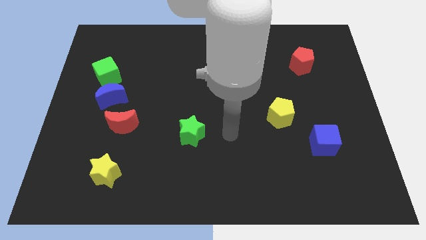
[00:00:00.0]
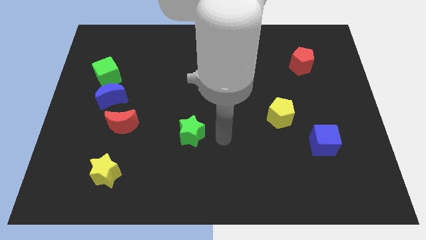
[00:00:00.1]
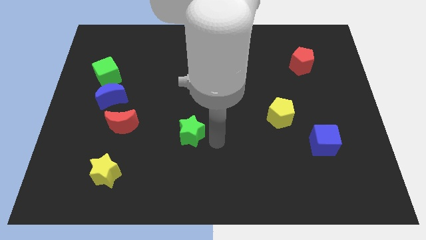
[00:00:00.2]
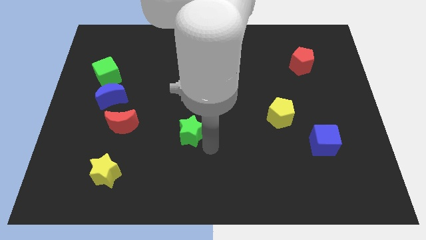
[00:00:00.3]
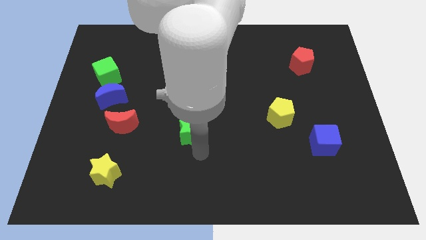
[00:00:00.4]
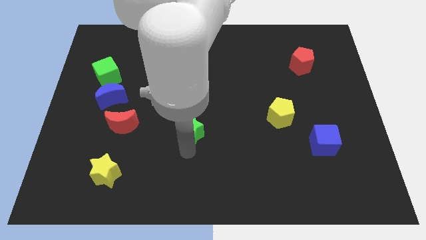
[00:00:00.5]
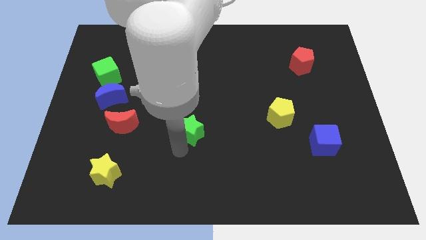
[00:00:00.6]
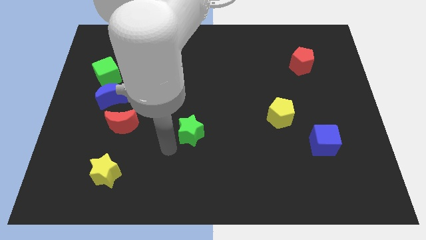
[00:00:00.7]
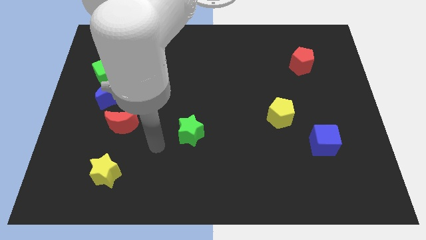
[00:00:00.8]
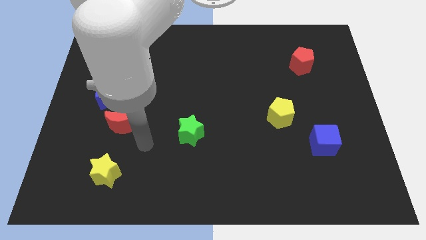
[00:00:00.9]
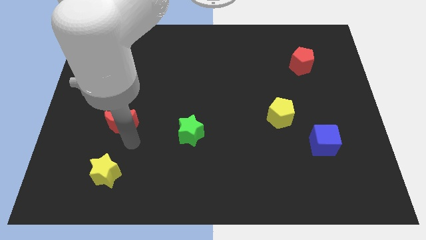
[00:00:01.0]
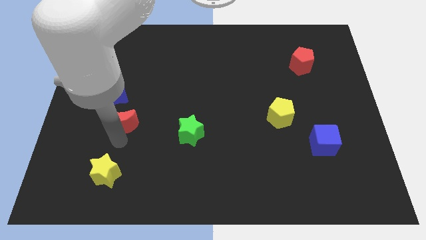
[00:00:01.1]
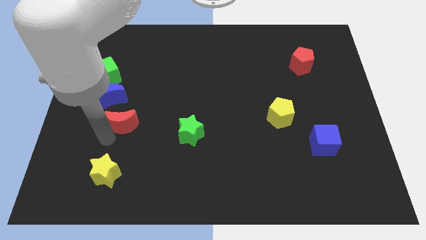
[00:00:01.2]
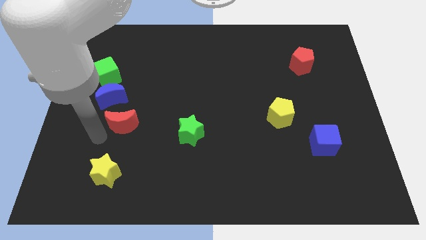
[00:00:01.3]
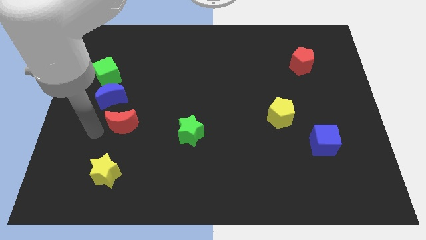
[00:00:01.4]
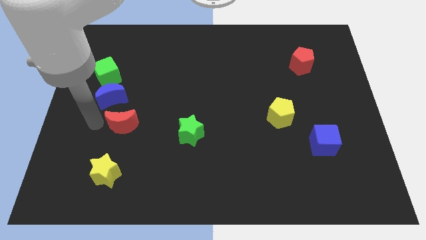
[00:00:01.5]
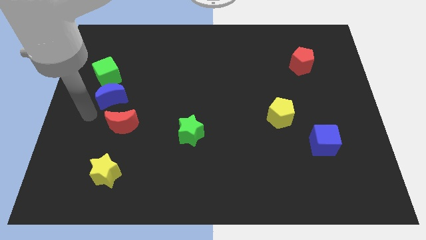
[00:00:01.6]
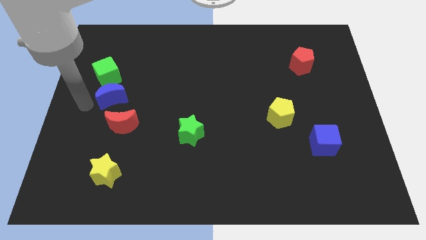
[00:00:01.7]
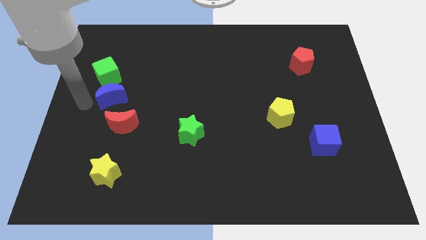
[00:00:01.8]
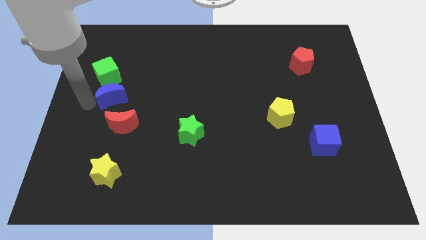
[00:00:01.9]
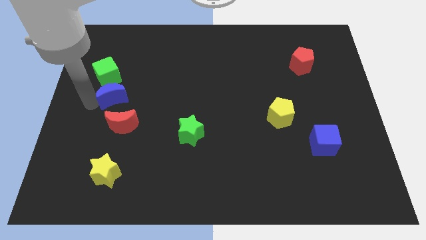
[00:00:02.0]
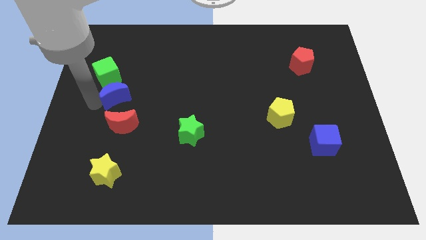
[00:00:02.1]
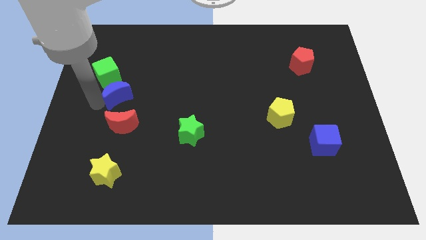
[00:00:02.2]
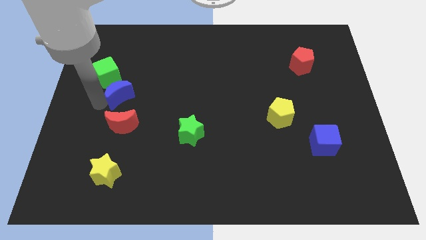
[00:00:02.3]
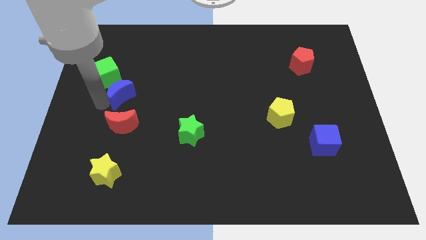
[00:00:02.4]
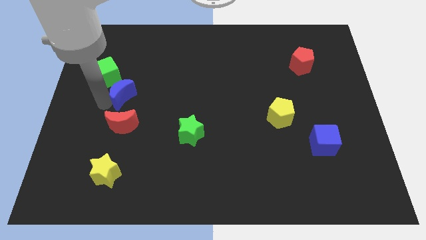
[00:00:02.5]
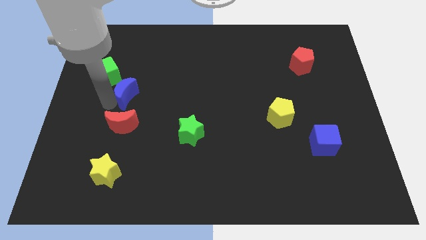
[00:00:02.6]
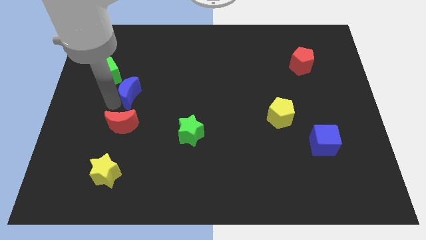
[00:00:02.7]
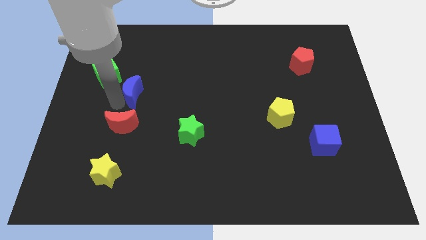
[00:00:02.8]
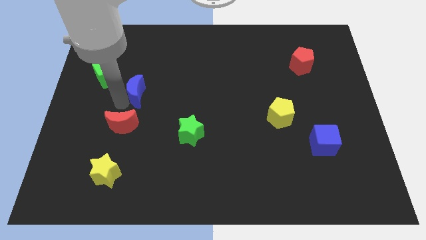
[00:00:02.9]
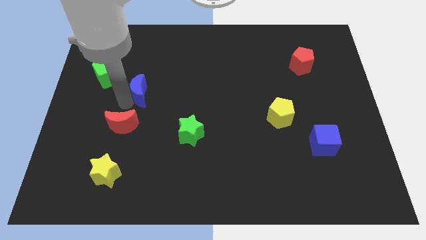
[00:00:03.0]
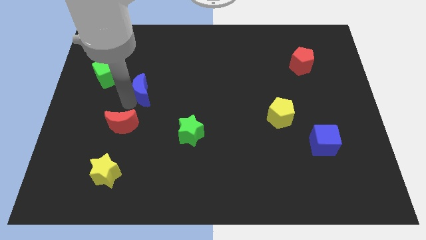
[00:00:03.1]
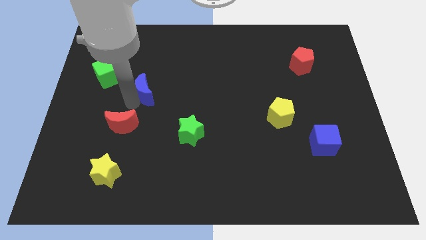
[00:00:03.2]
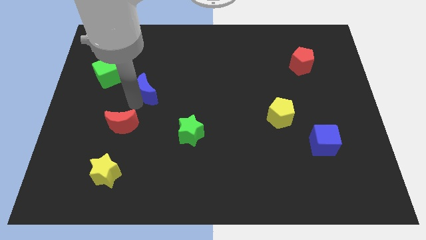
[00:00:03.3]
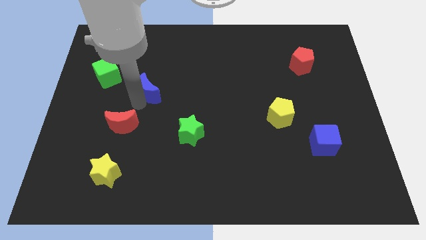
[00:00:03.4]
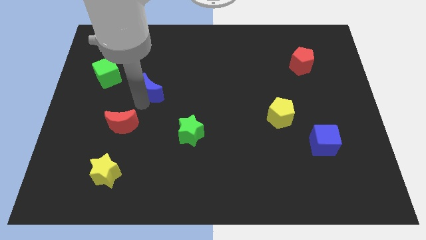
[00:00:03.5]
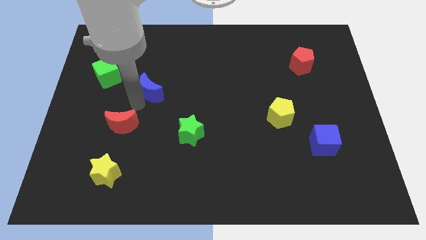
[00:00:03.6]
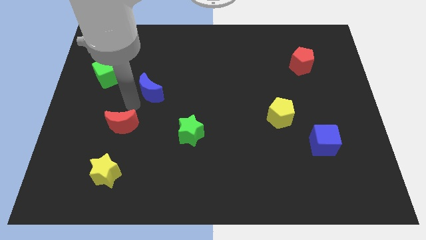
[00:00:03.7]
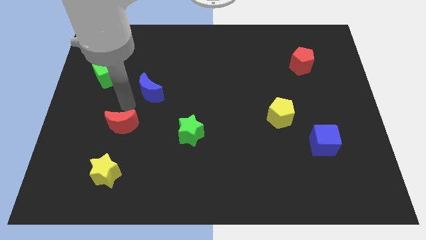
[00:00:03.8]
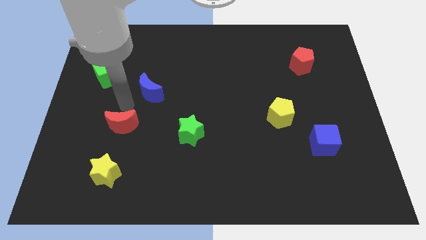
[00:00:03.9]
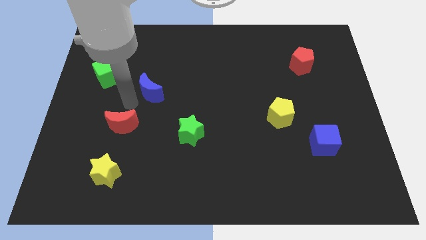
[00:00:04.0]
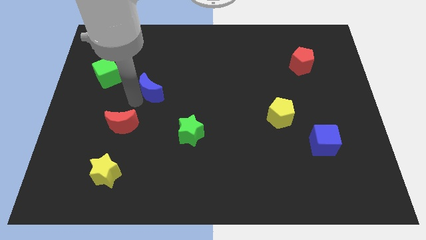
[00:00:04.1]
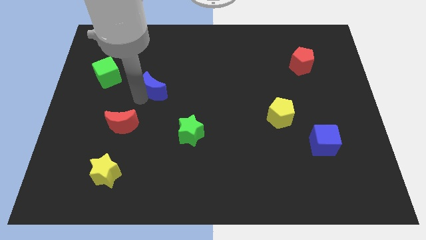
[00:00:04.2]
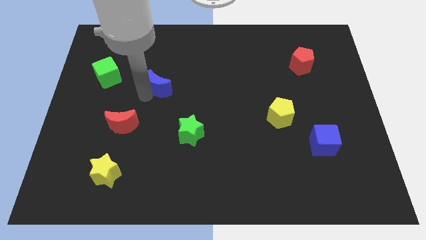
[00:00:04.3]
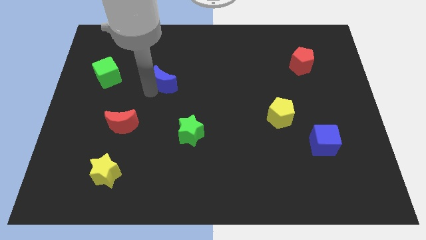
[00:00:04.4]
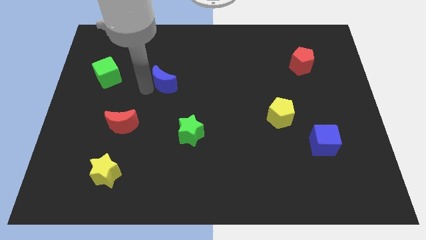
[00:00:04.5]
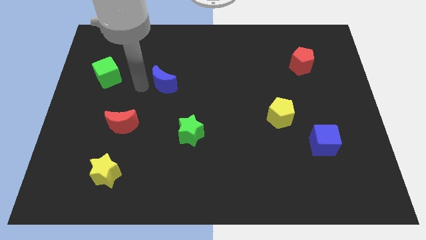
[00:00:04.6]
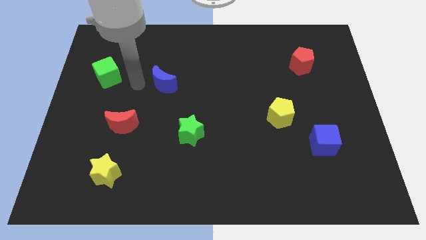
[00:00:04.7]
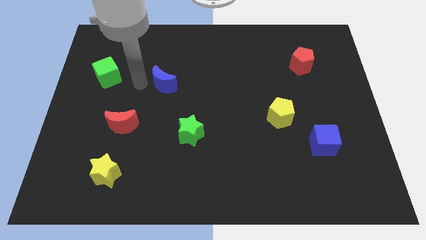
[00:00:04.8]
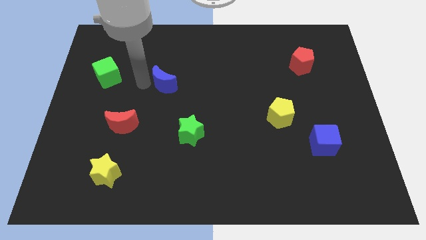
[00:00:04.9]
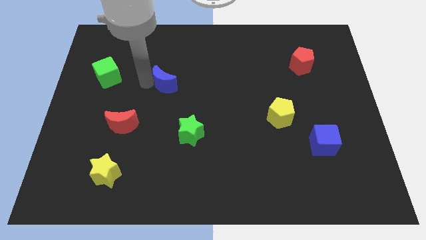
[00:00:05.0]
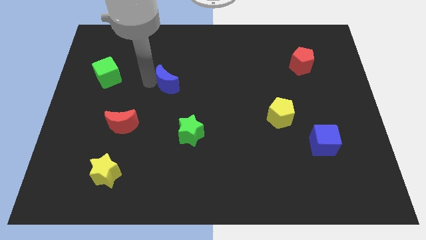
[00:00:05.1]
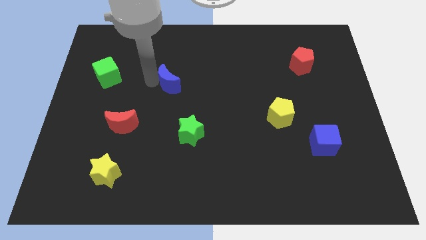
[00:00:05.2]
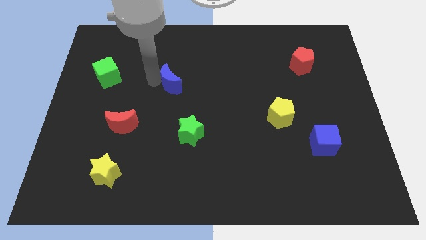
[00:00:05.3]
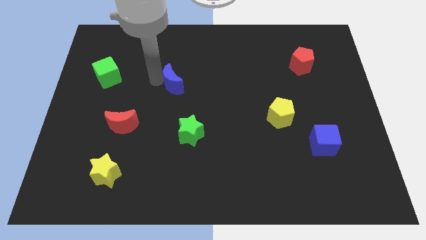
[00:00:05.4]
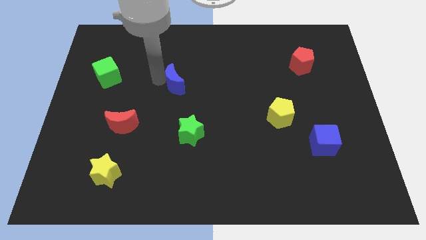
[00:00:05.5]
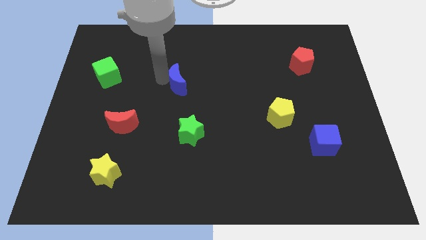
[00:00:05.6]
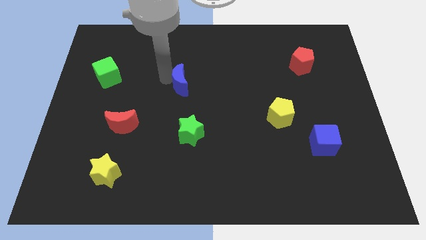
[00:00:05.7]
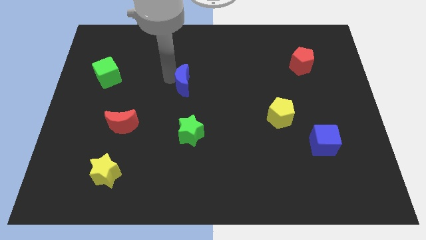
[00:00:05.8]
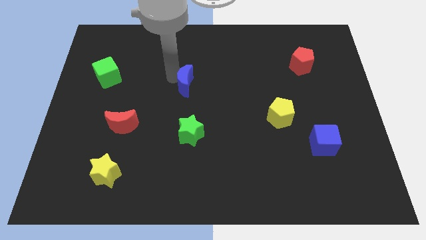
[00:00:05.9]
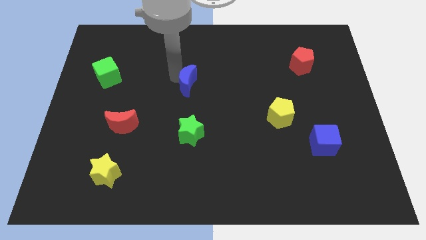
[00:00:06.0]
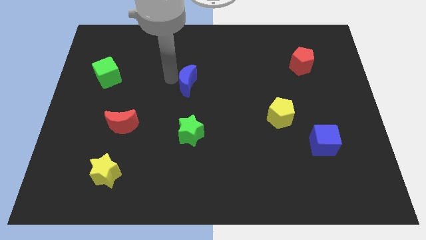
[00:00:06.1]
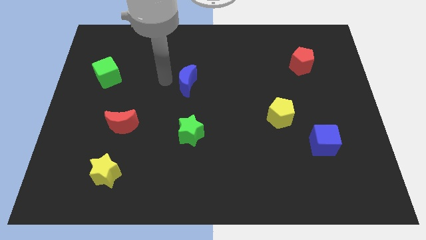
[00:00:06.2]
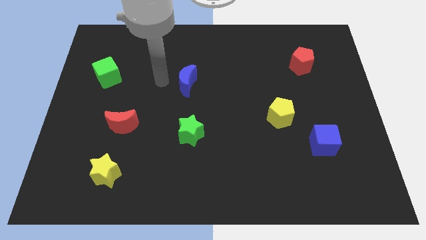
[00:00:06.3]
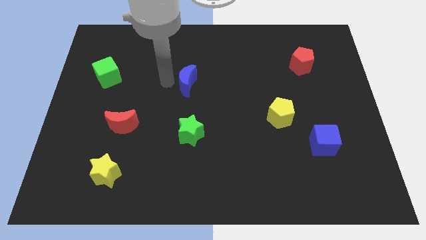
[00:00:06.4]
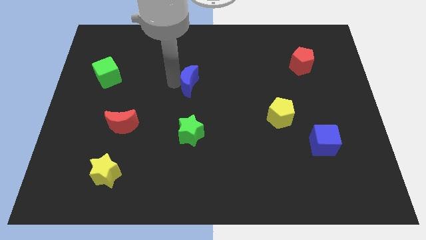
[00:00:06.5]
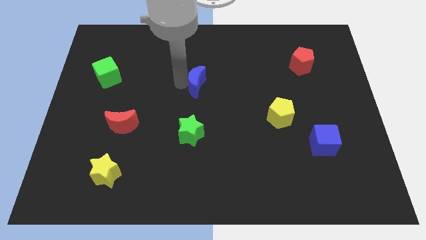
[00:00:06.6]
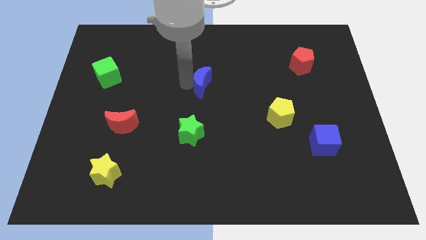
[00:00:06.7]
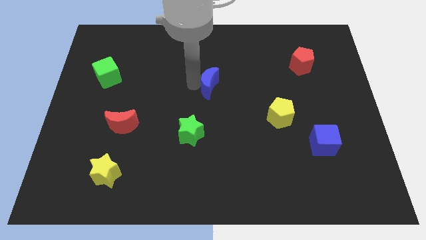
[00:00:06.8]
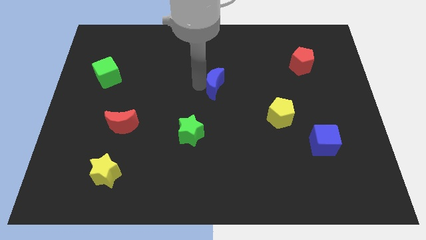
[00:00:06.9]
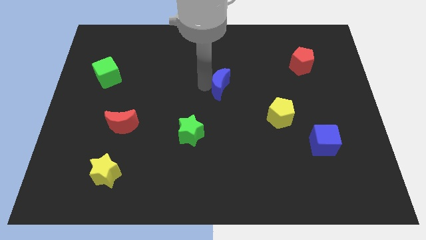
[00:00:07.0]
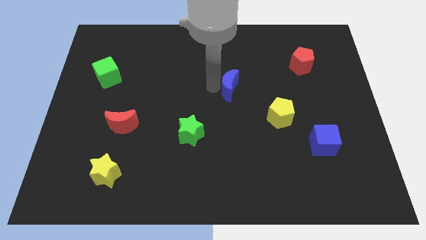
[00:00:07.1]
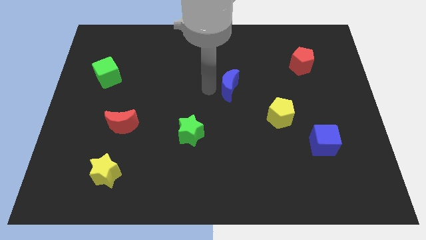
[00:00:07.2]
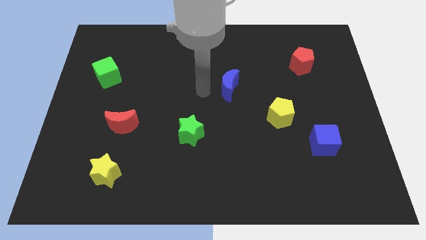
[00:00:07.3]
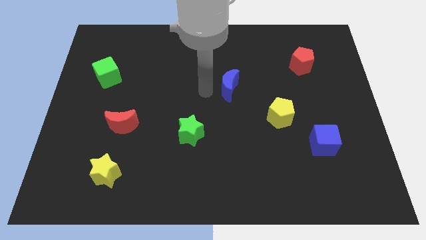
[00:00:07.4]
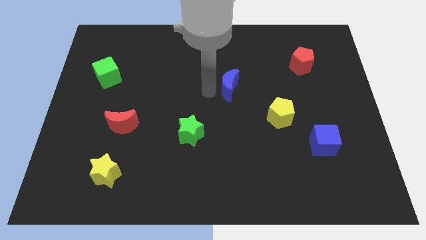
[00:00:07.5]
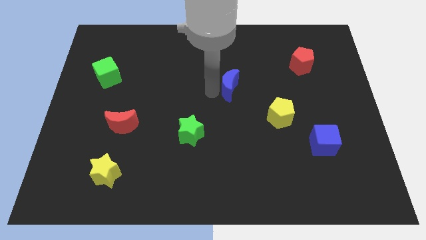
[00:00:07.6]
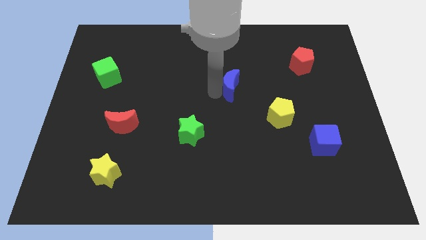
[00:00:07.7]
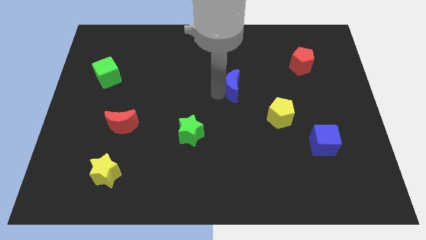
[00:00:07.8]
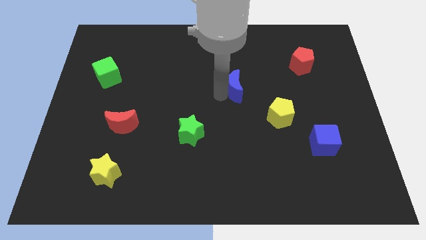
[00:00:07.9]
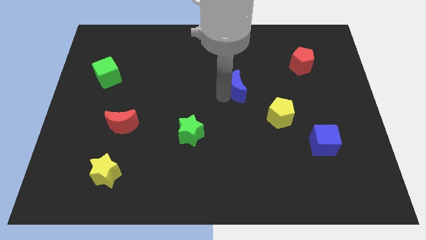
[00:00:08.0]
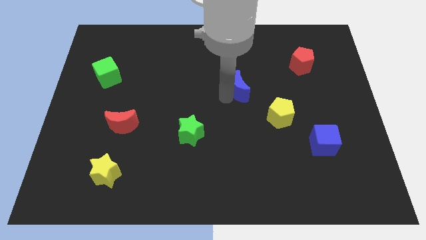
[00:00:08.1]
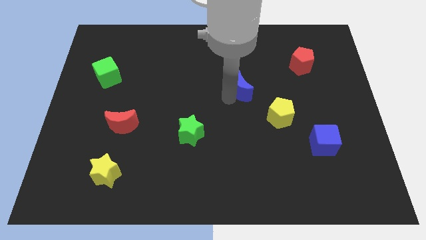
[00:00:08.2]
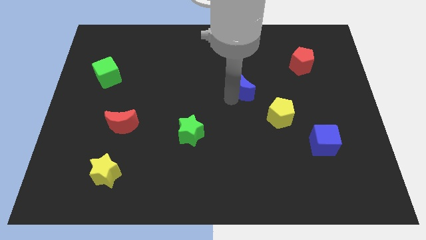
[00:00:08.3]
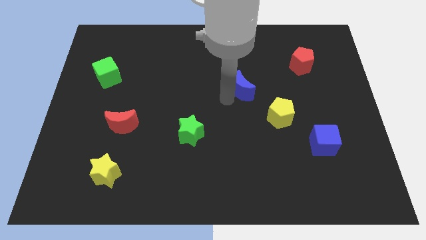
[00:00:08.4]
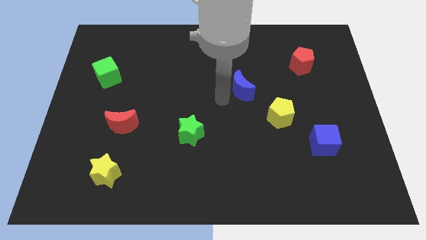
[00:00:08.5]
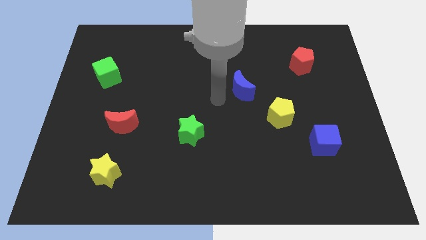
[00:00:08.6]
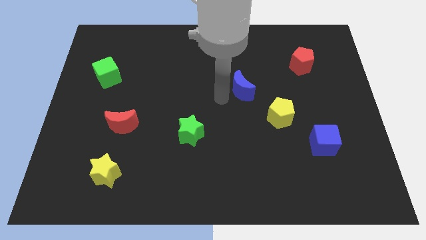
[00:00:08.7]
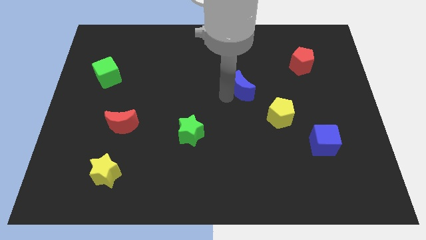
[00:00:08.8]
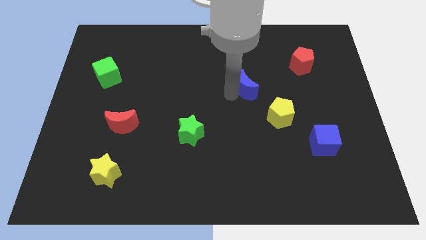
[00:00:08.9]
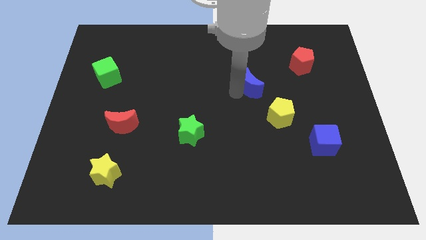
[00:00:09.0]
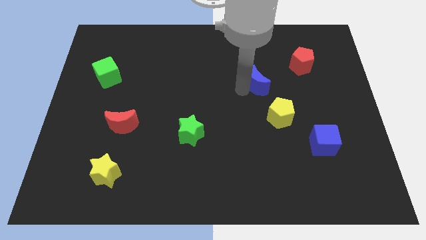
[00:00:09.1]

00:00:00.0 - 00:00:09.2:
push the blue moon to the top side of the yellow pentagon
